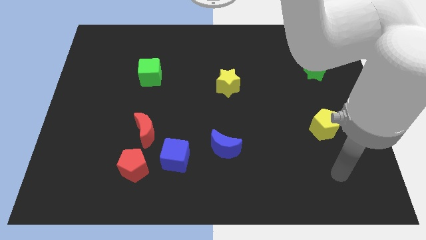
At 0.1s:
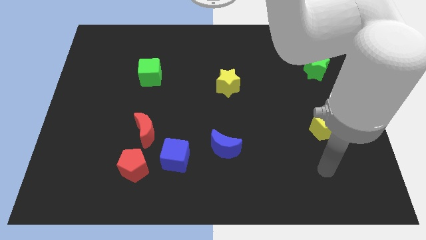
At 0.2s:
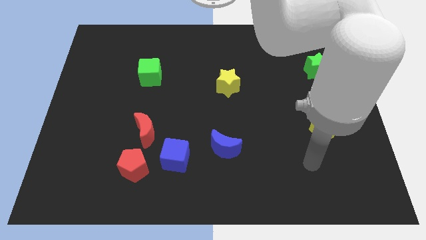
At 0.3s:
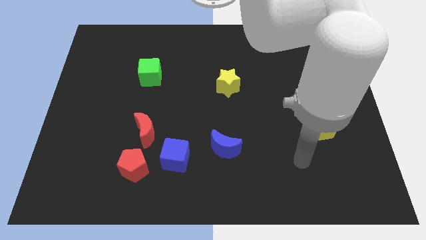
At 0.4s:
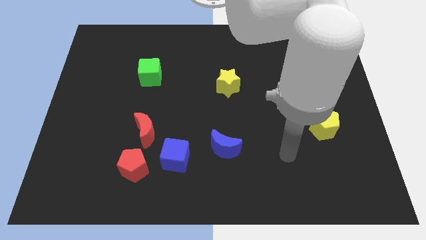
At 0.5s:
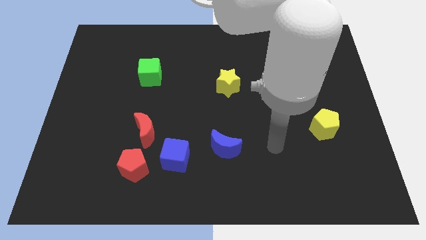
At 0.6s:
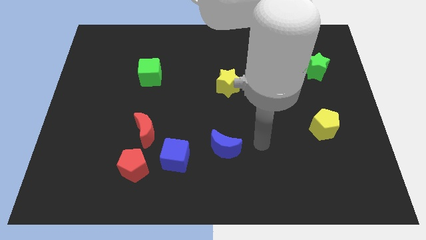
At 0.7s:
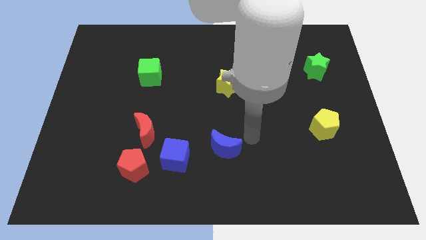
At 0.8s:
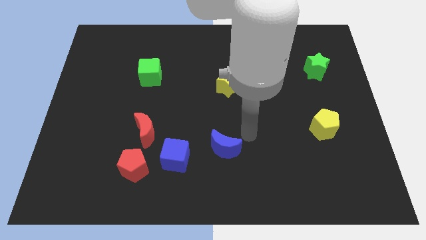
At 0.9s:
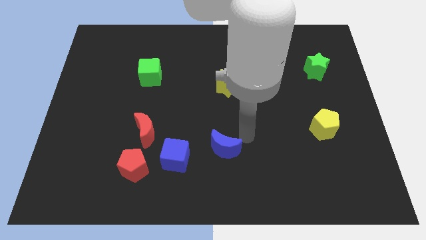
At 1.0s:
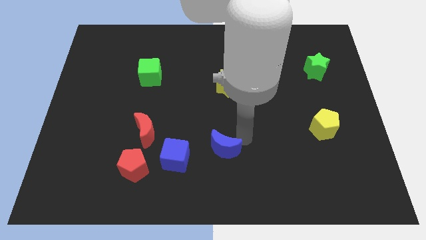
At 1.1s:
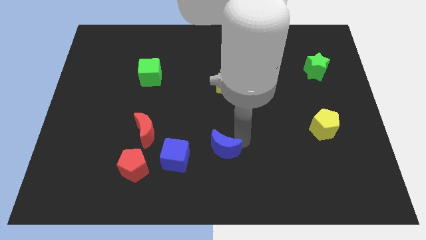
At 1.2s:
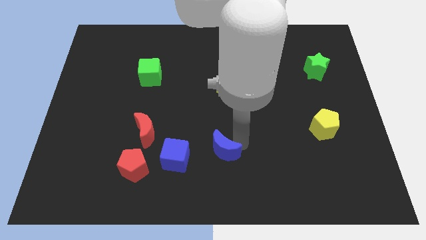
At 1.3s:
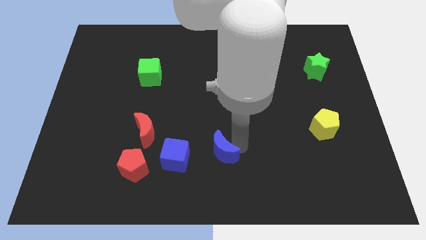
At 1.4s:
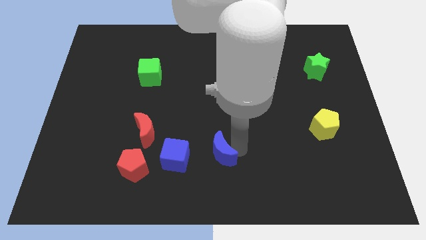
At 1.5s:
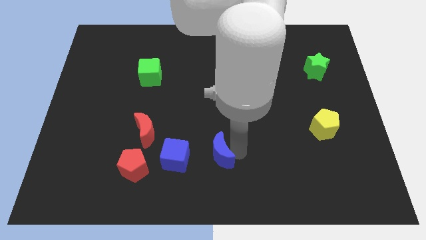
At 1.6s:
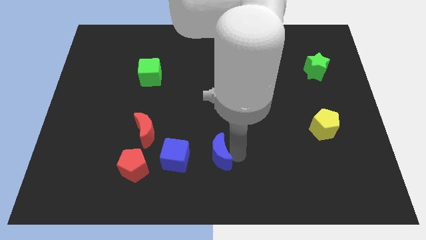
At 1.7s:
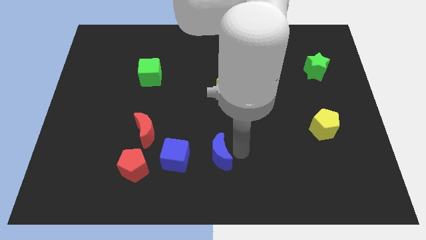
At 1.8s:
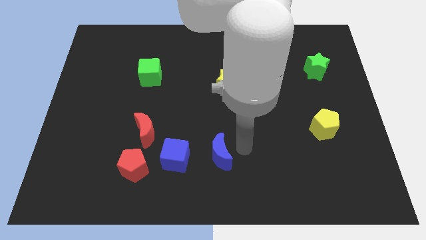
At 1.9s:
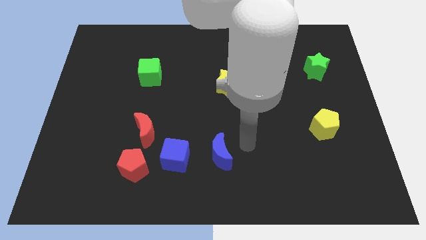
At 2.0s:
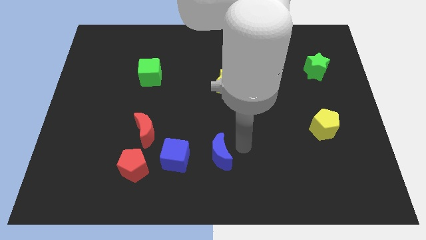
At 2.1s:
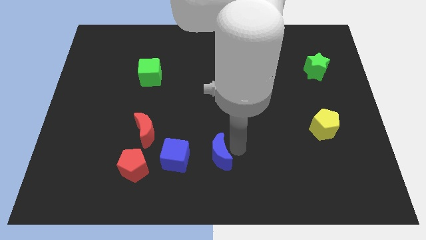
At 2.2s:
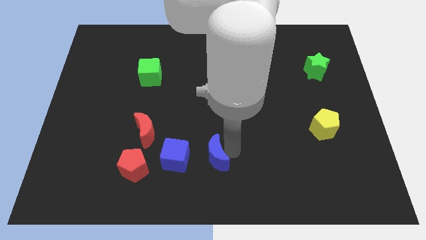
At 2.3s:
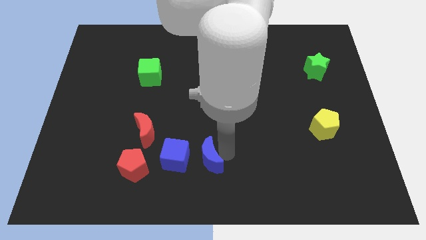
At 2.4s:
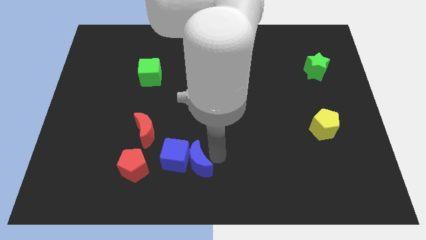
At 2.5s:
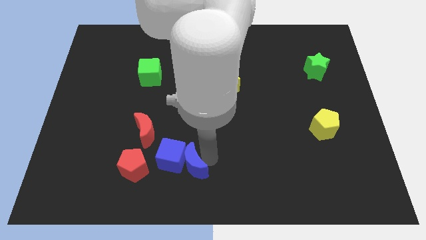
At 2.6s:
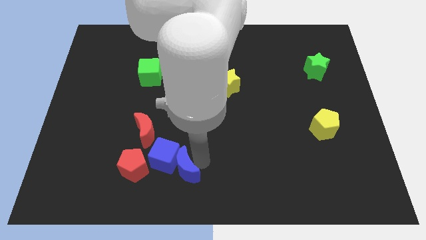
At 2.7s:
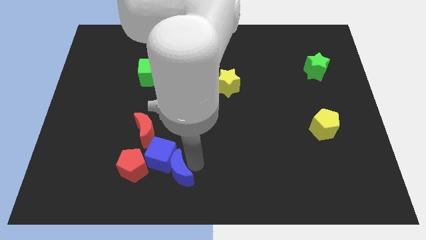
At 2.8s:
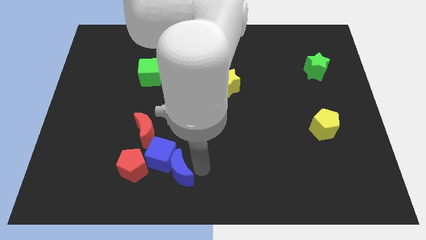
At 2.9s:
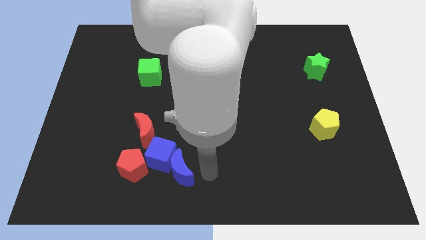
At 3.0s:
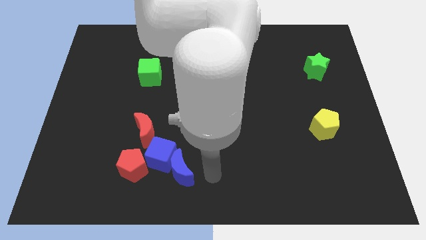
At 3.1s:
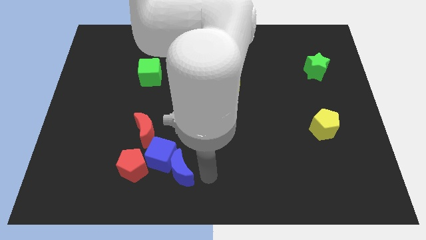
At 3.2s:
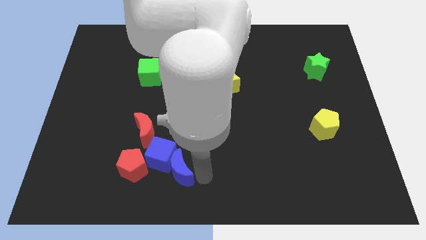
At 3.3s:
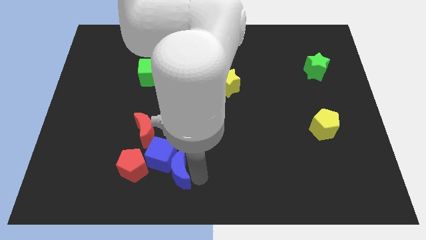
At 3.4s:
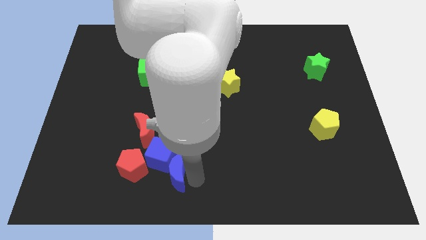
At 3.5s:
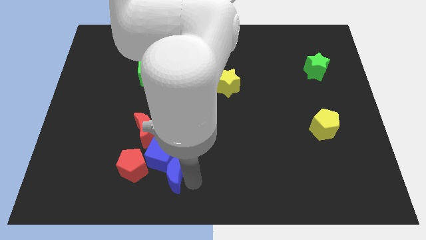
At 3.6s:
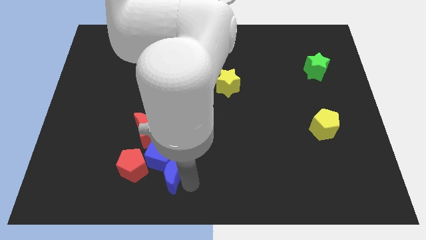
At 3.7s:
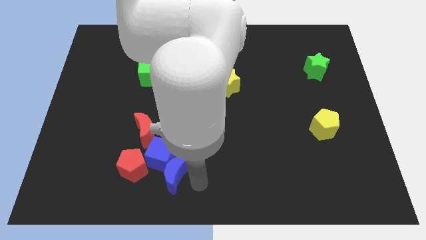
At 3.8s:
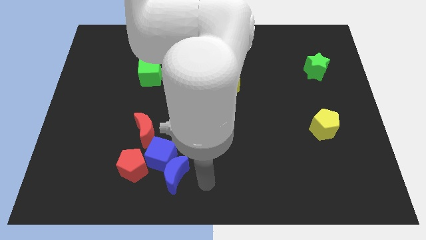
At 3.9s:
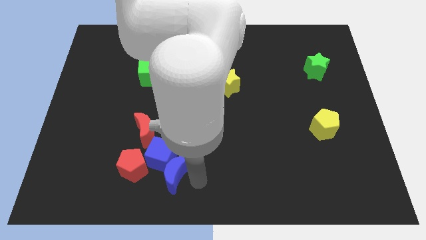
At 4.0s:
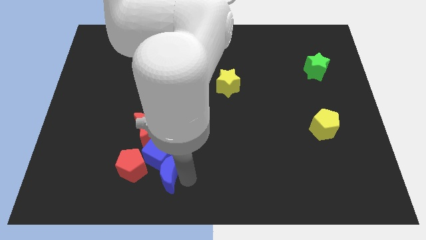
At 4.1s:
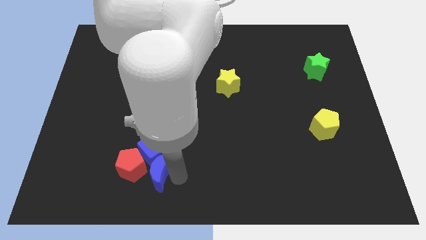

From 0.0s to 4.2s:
move the blue moon next to the red pentagon

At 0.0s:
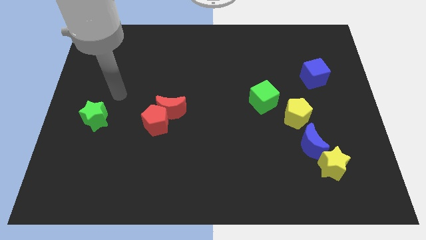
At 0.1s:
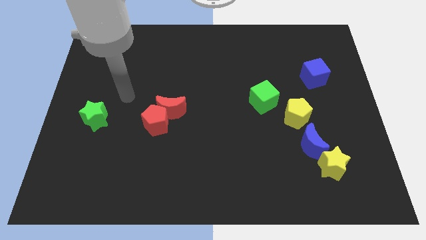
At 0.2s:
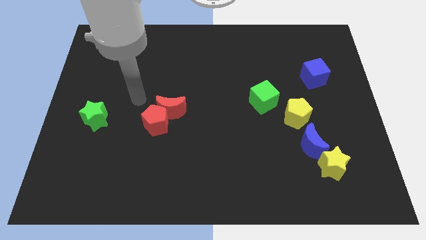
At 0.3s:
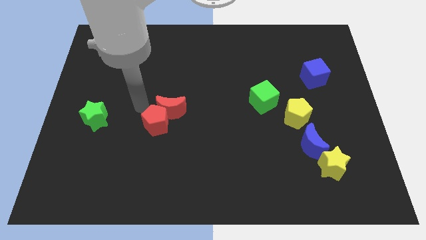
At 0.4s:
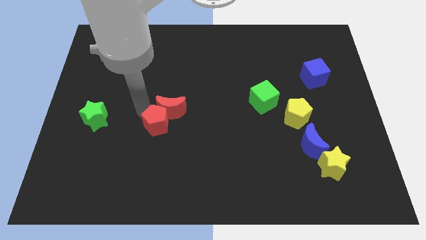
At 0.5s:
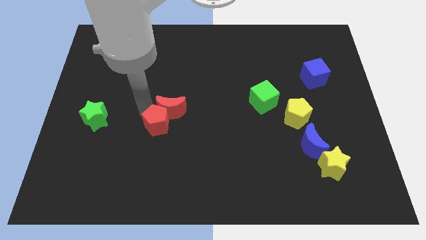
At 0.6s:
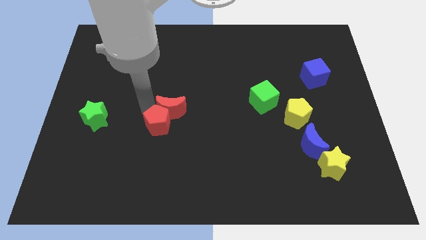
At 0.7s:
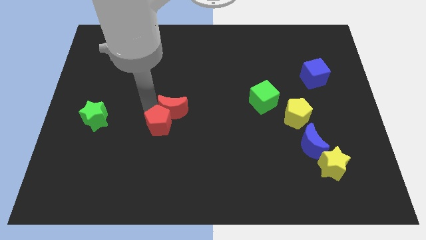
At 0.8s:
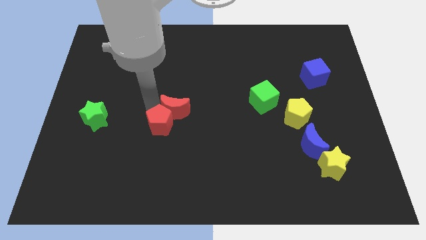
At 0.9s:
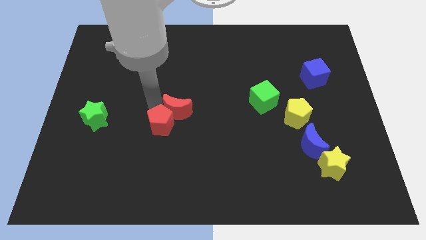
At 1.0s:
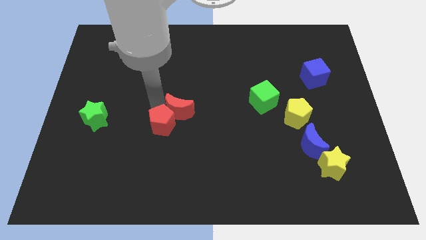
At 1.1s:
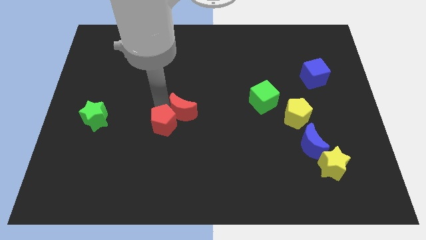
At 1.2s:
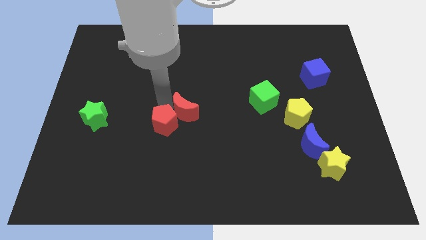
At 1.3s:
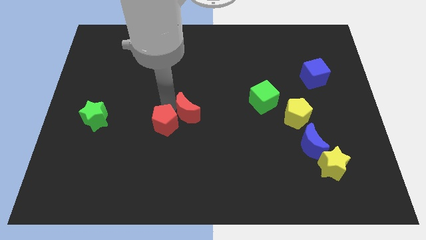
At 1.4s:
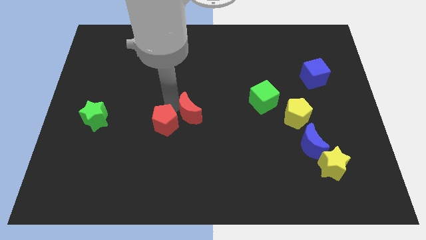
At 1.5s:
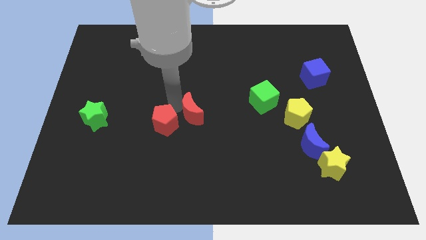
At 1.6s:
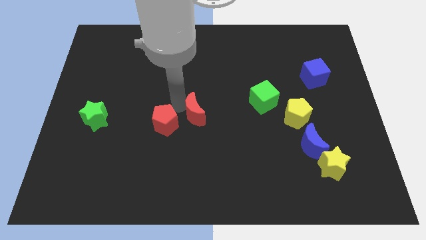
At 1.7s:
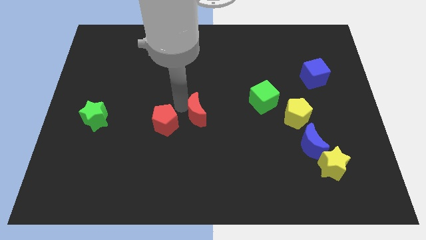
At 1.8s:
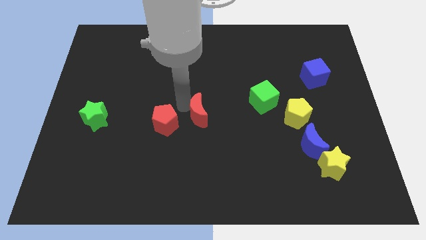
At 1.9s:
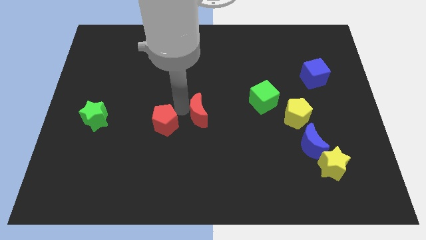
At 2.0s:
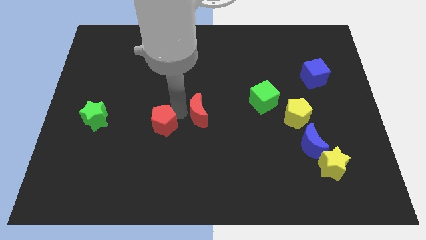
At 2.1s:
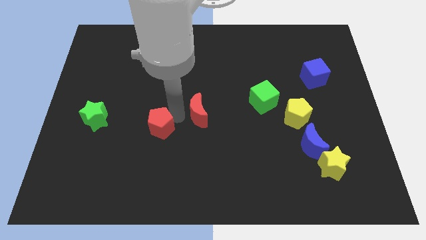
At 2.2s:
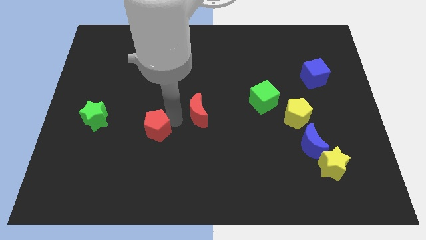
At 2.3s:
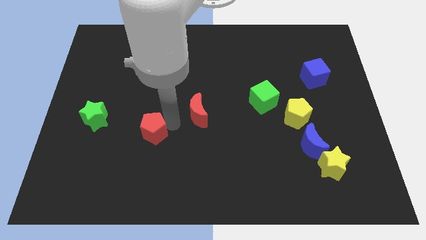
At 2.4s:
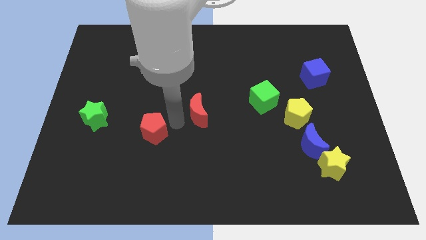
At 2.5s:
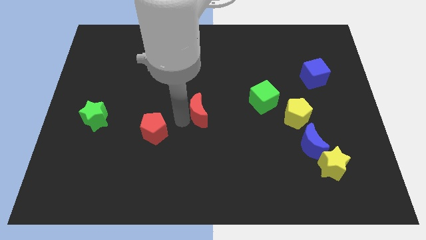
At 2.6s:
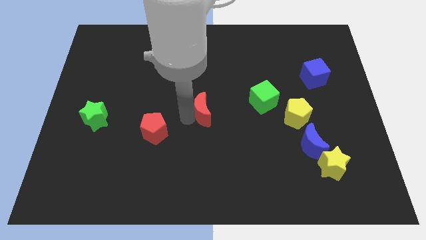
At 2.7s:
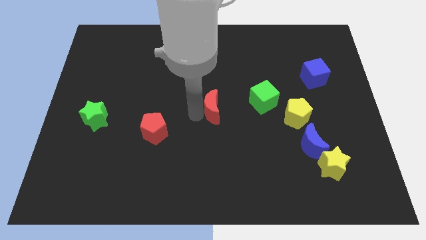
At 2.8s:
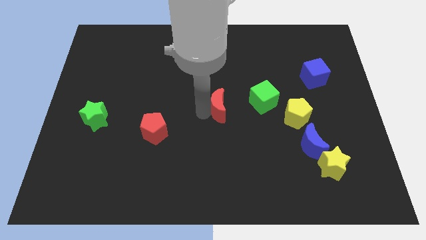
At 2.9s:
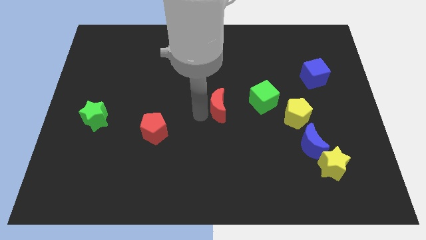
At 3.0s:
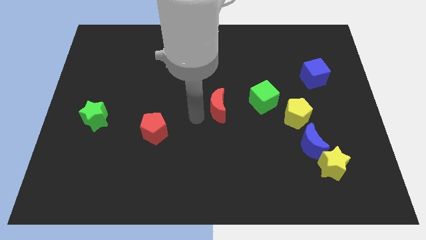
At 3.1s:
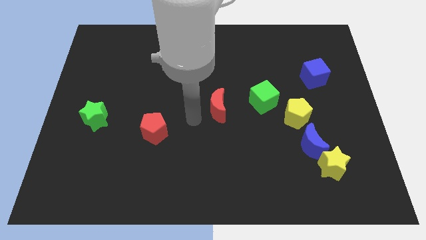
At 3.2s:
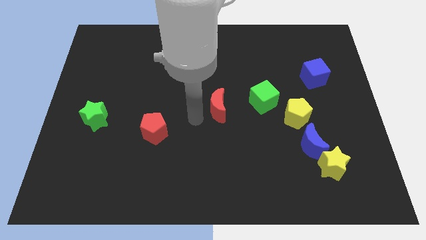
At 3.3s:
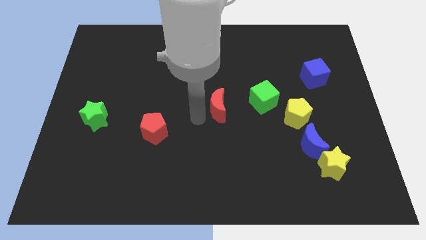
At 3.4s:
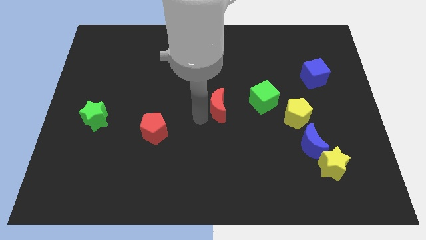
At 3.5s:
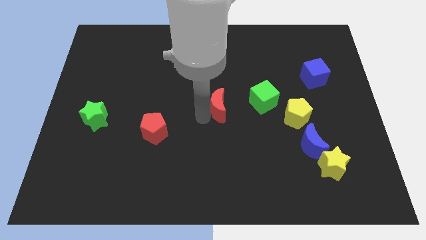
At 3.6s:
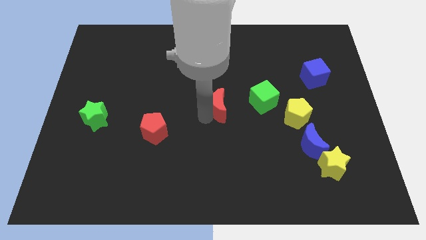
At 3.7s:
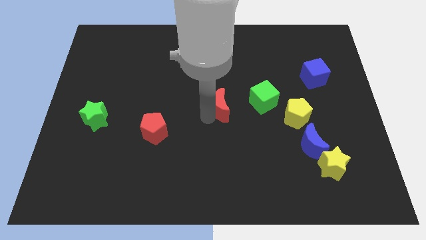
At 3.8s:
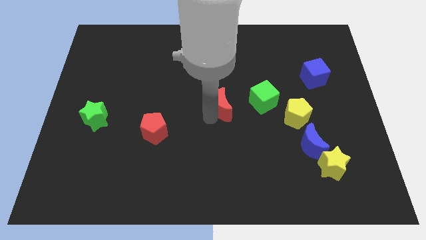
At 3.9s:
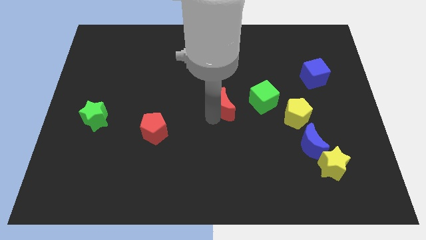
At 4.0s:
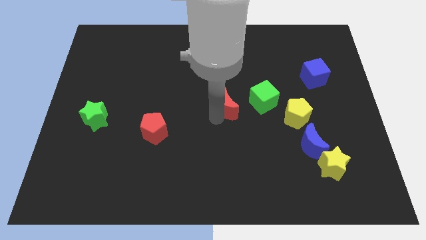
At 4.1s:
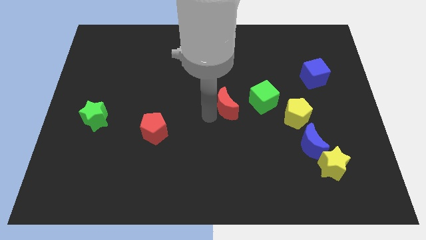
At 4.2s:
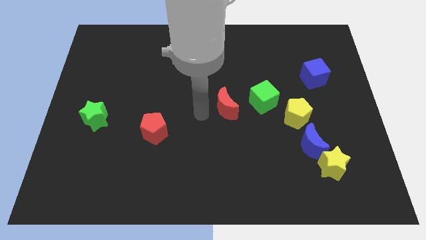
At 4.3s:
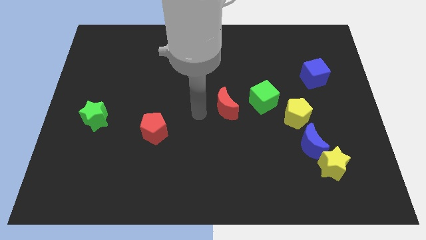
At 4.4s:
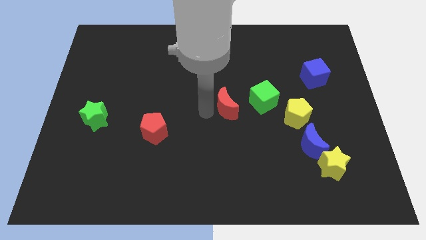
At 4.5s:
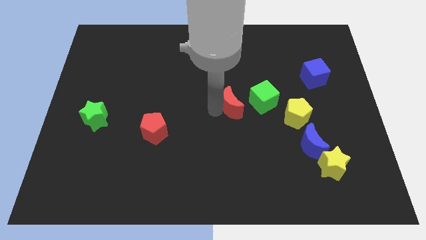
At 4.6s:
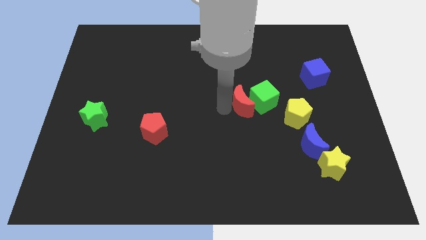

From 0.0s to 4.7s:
slide the red moon next to the green cube
